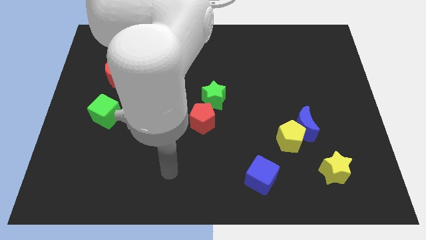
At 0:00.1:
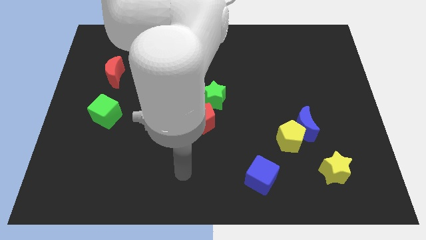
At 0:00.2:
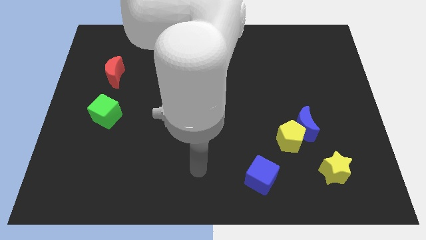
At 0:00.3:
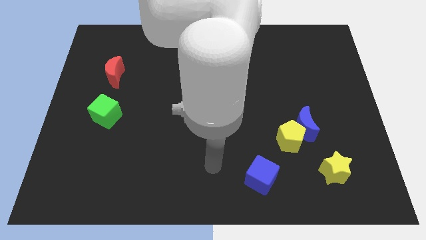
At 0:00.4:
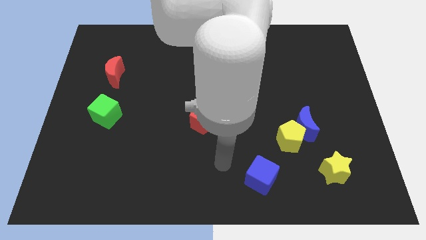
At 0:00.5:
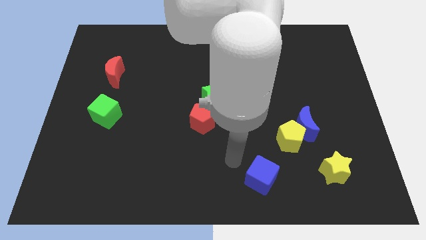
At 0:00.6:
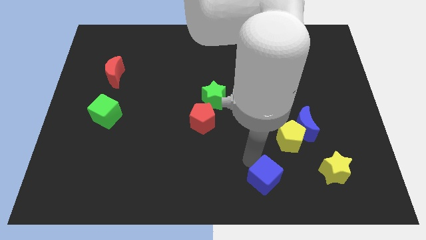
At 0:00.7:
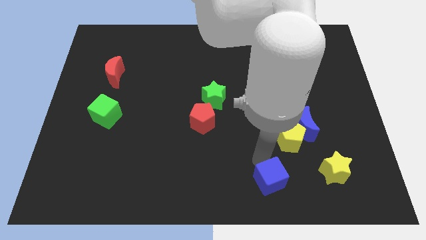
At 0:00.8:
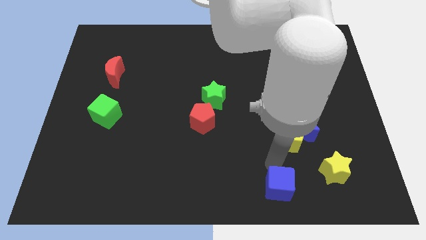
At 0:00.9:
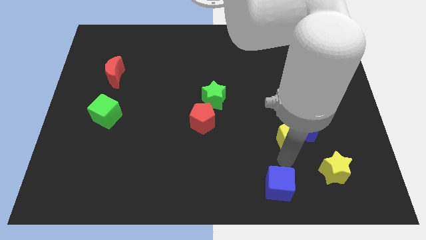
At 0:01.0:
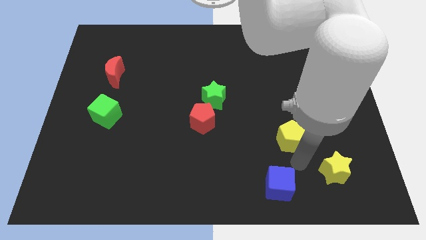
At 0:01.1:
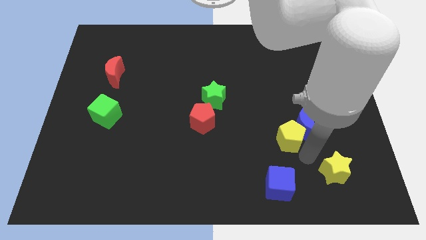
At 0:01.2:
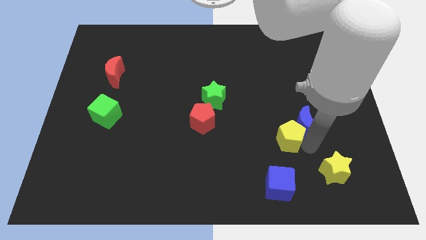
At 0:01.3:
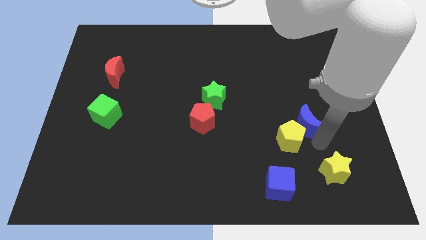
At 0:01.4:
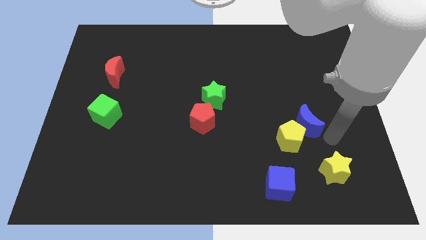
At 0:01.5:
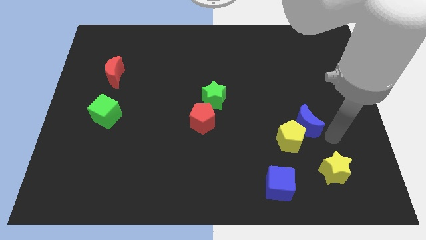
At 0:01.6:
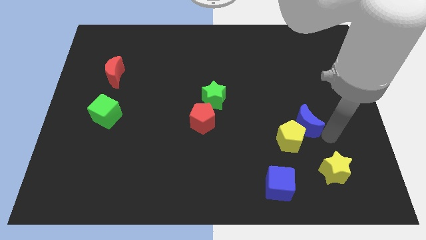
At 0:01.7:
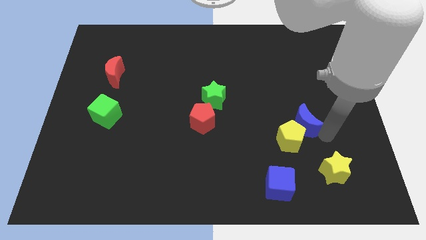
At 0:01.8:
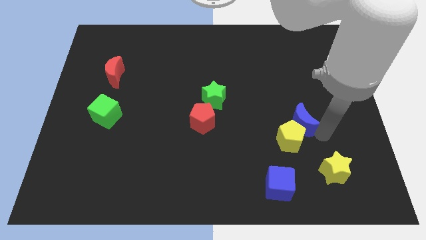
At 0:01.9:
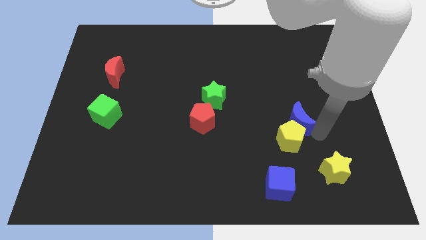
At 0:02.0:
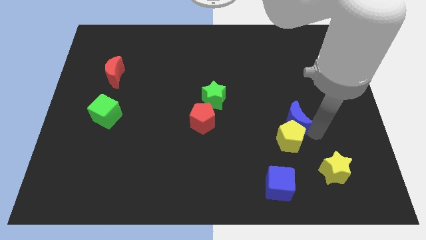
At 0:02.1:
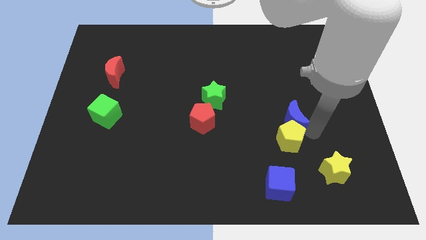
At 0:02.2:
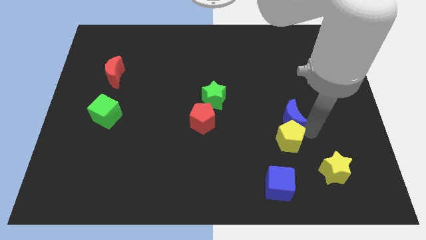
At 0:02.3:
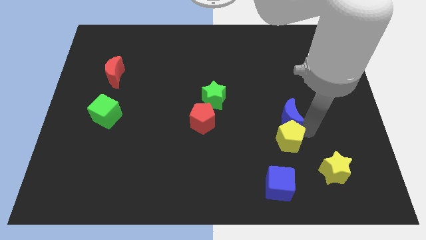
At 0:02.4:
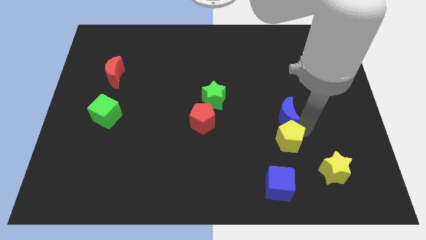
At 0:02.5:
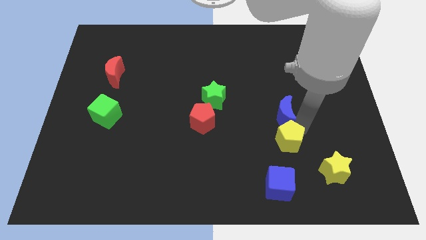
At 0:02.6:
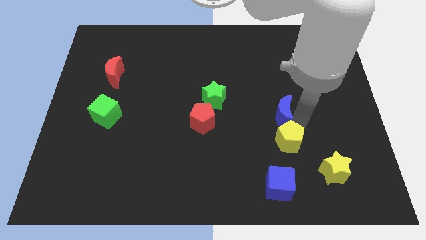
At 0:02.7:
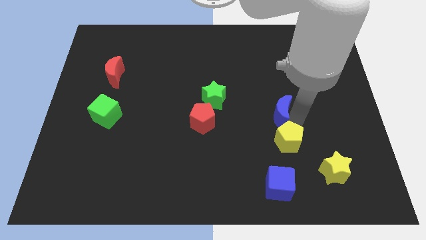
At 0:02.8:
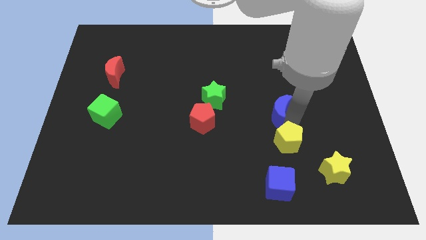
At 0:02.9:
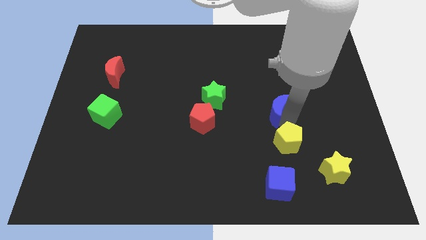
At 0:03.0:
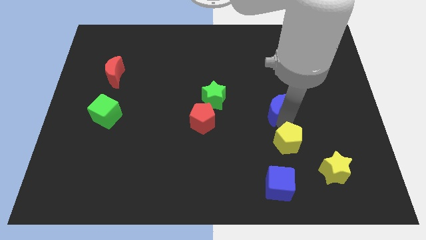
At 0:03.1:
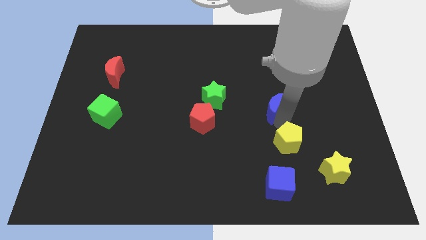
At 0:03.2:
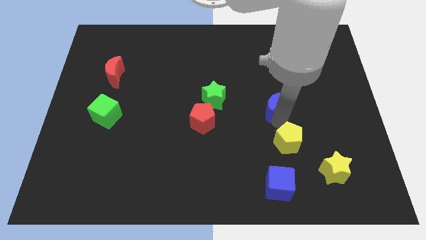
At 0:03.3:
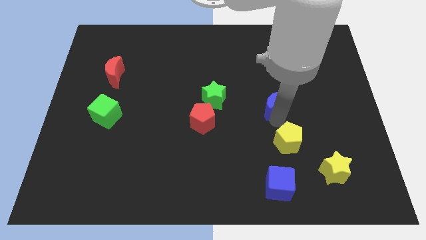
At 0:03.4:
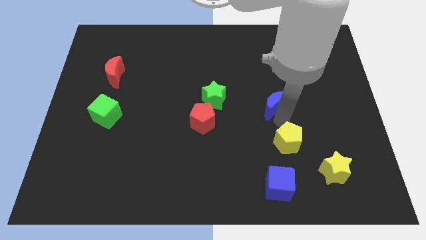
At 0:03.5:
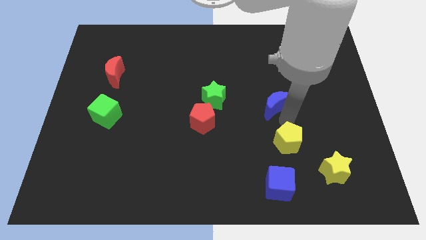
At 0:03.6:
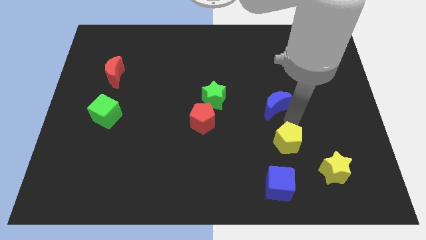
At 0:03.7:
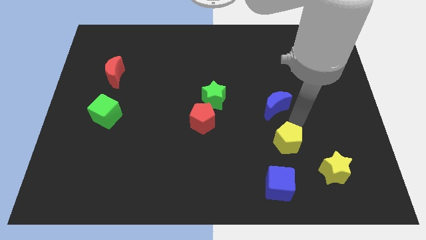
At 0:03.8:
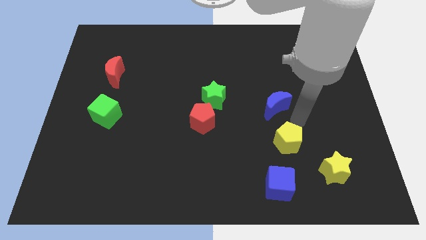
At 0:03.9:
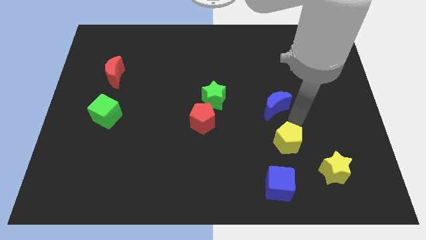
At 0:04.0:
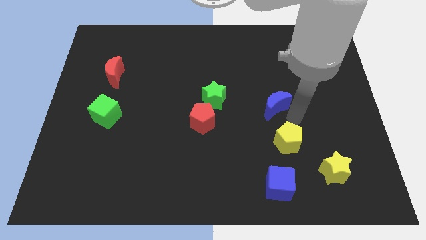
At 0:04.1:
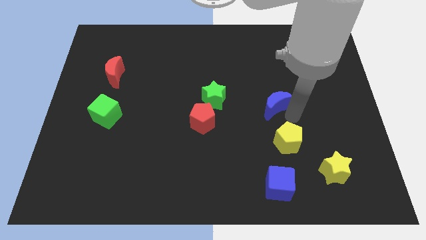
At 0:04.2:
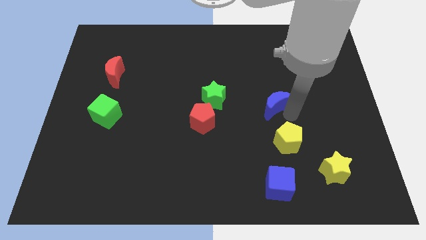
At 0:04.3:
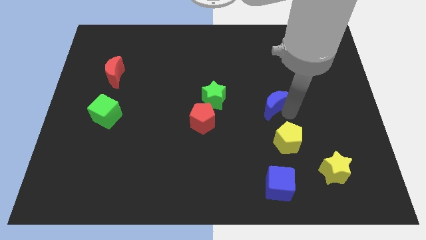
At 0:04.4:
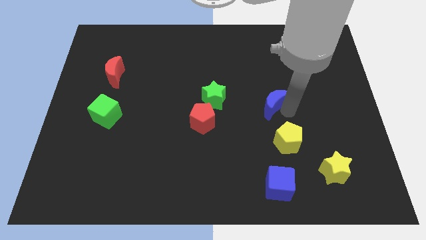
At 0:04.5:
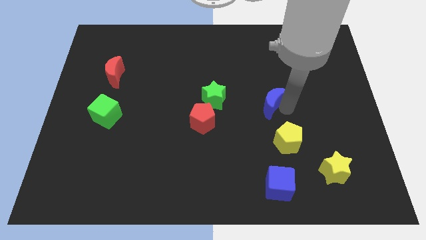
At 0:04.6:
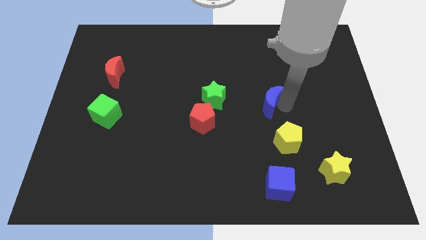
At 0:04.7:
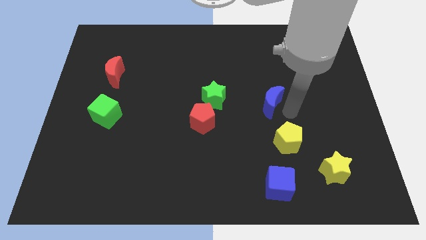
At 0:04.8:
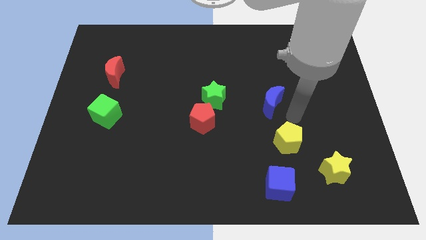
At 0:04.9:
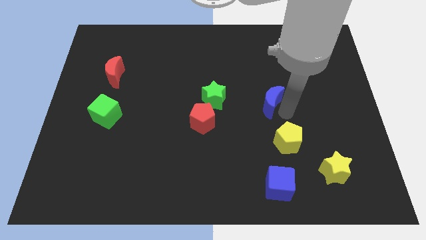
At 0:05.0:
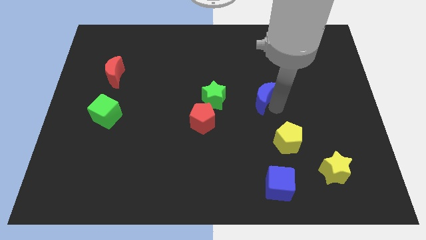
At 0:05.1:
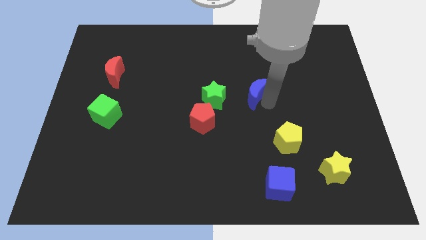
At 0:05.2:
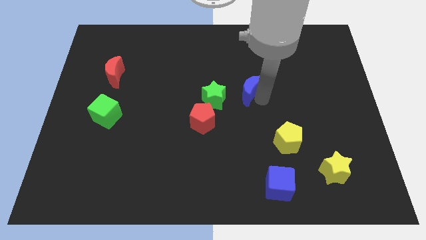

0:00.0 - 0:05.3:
slide the blue moon to the top right of the green star

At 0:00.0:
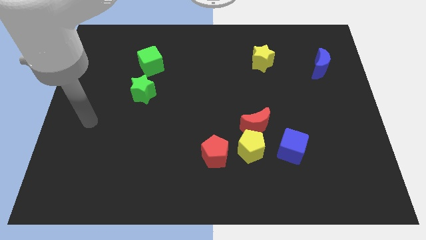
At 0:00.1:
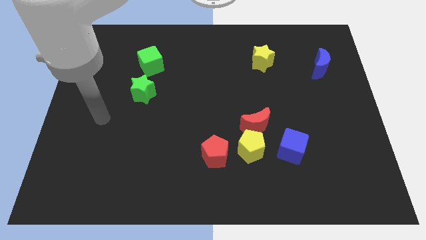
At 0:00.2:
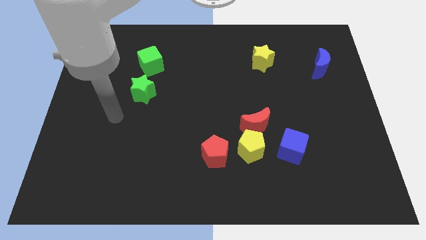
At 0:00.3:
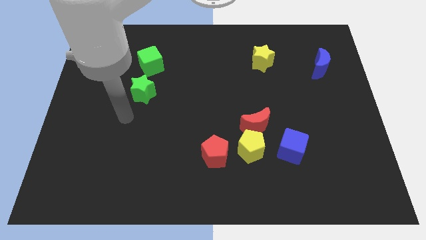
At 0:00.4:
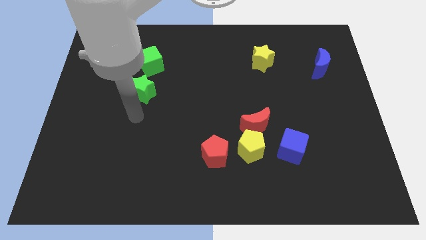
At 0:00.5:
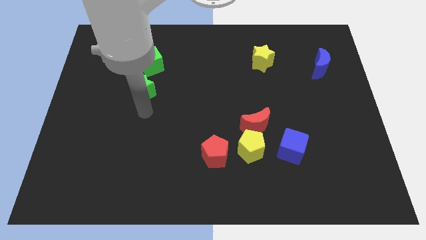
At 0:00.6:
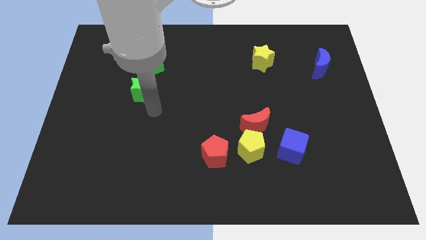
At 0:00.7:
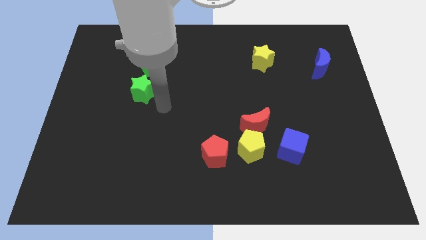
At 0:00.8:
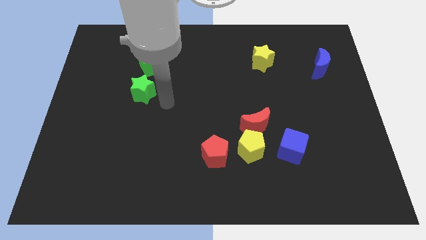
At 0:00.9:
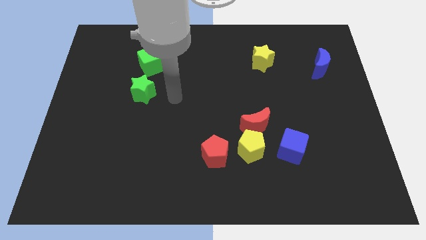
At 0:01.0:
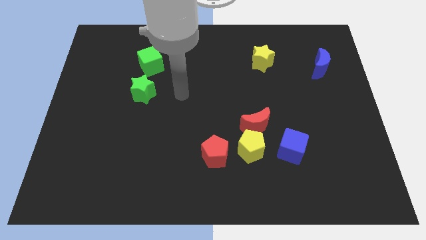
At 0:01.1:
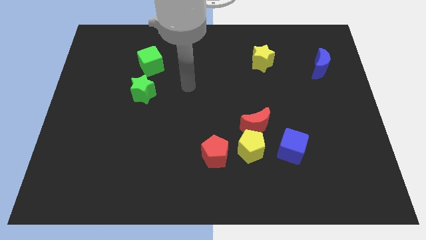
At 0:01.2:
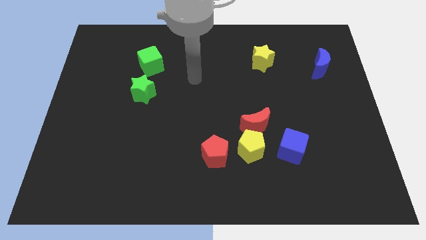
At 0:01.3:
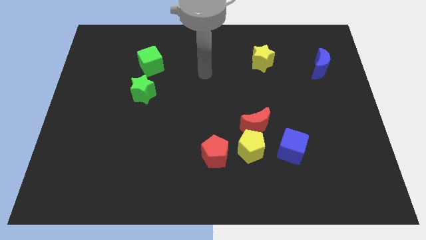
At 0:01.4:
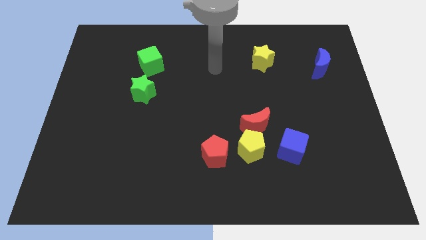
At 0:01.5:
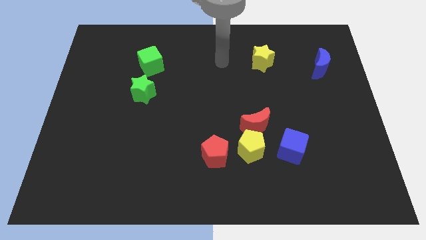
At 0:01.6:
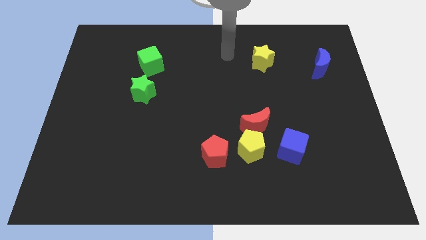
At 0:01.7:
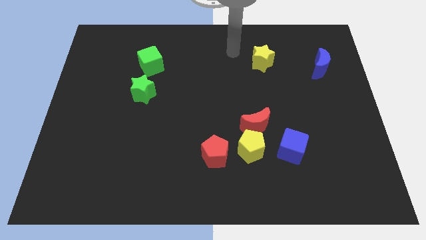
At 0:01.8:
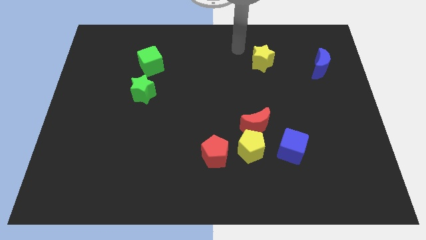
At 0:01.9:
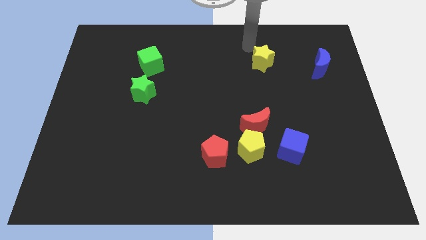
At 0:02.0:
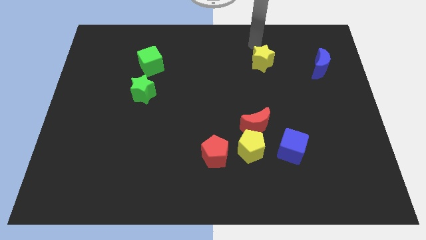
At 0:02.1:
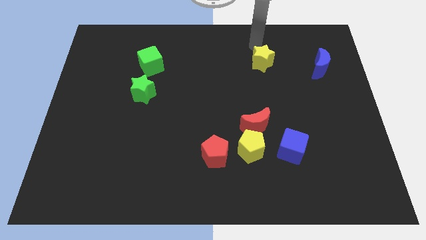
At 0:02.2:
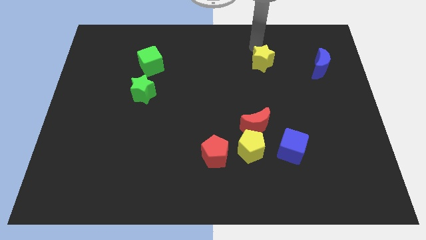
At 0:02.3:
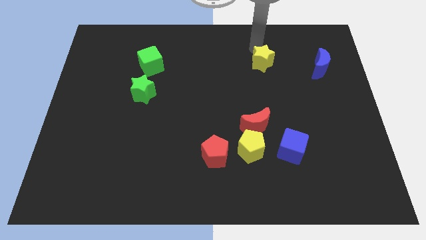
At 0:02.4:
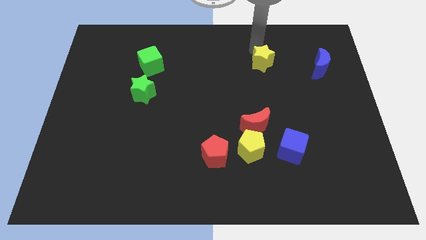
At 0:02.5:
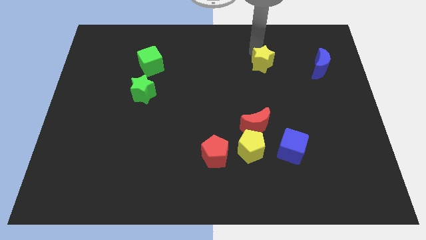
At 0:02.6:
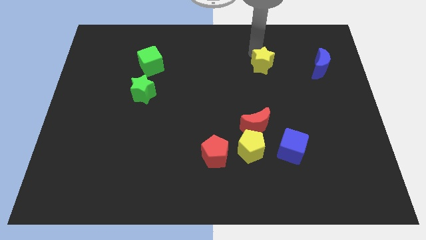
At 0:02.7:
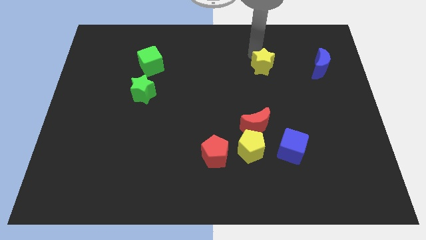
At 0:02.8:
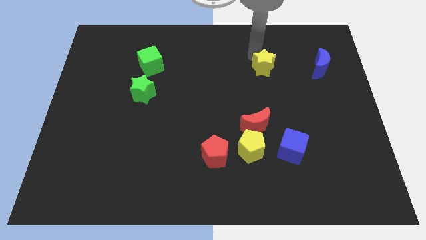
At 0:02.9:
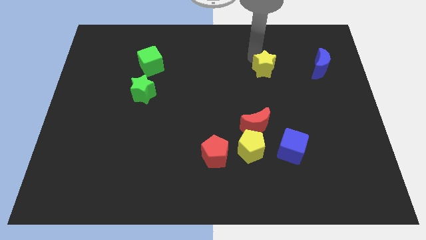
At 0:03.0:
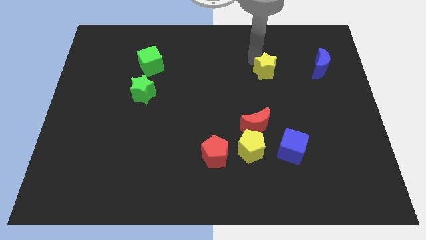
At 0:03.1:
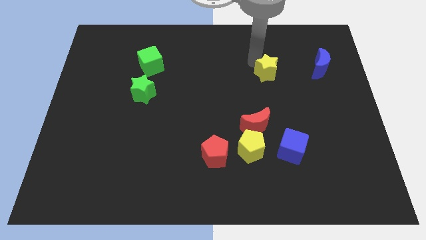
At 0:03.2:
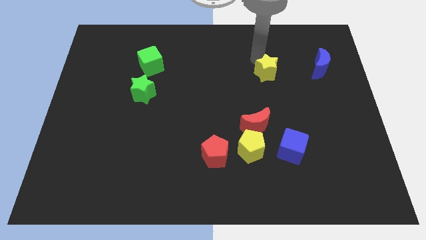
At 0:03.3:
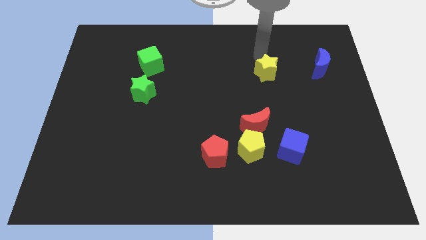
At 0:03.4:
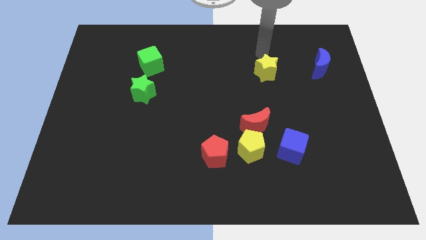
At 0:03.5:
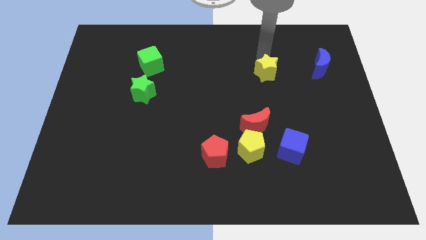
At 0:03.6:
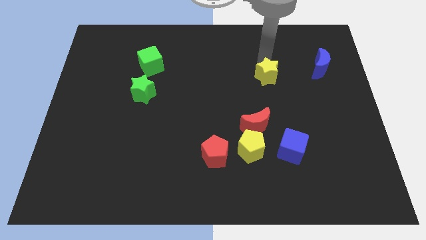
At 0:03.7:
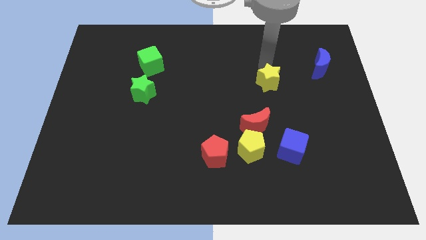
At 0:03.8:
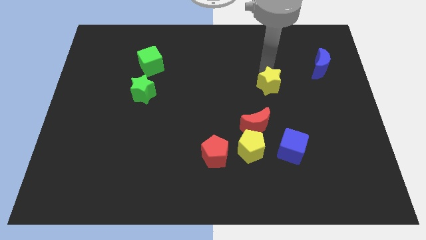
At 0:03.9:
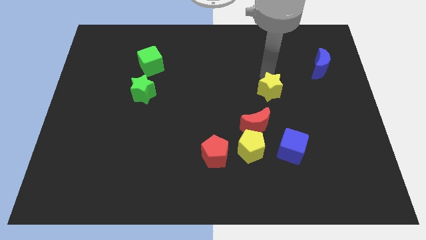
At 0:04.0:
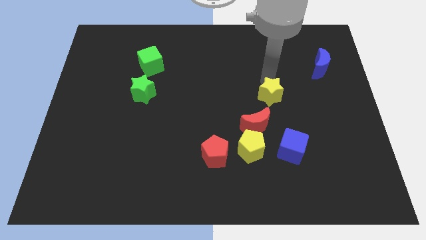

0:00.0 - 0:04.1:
move the yellow star to the top right side of the red moon
